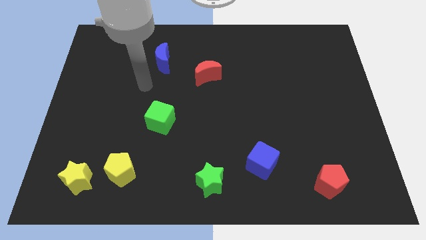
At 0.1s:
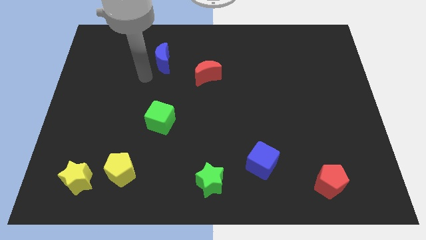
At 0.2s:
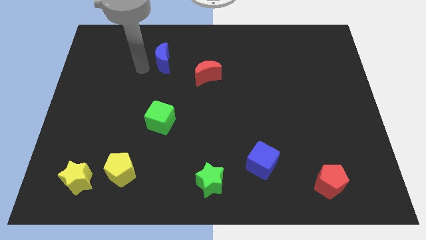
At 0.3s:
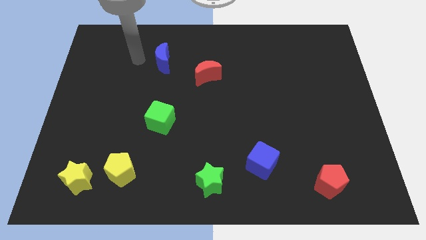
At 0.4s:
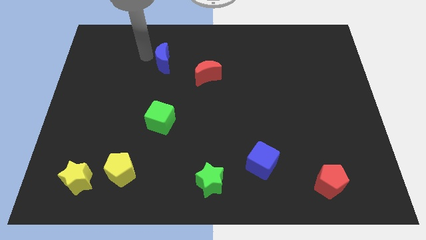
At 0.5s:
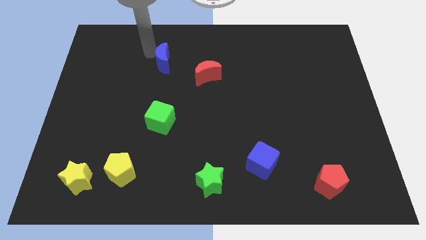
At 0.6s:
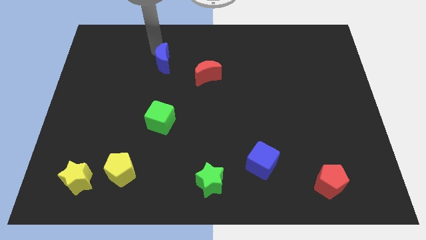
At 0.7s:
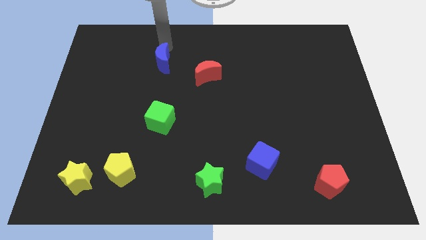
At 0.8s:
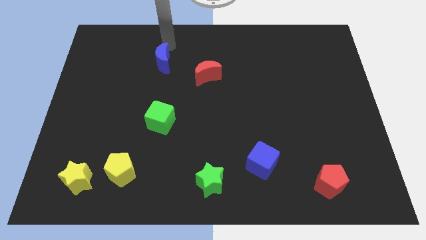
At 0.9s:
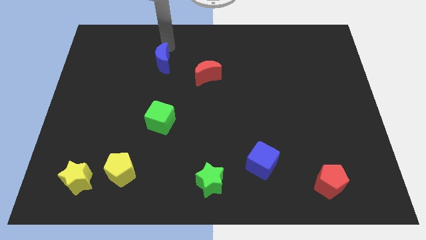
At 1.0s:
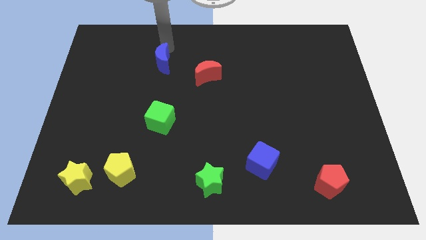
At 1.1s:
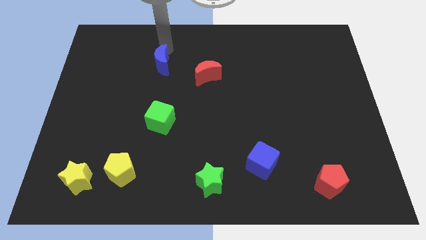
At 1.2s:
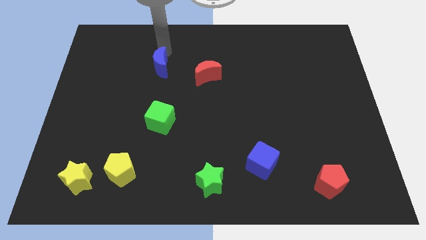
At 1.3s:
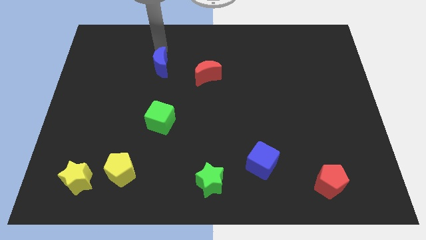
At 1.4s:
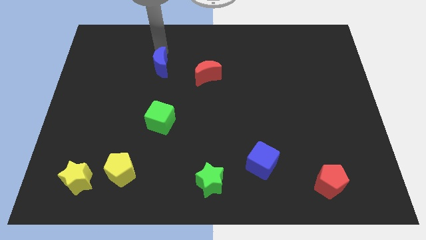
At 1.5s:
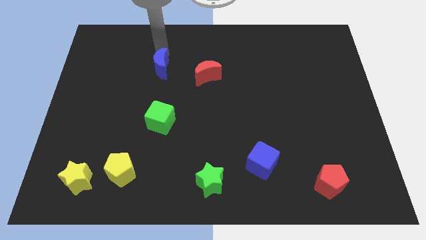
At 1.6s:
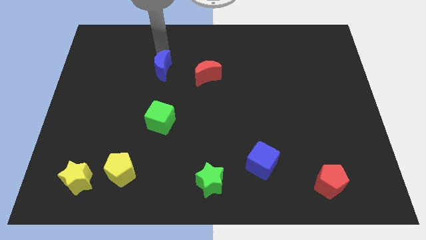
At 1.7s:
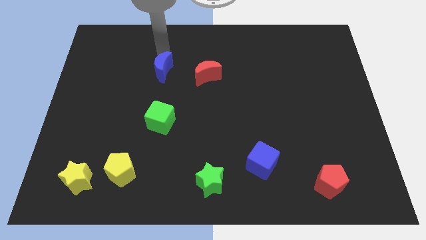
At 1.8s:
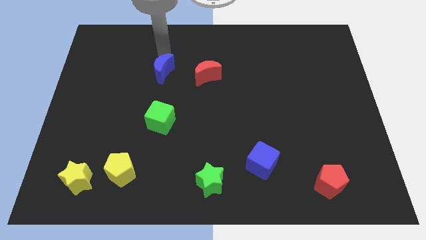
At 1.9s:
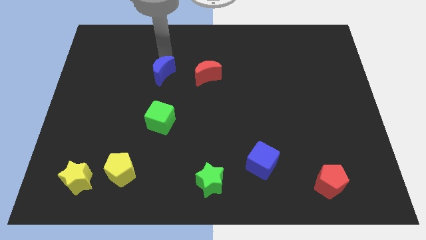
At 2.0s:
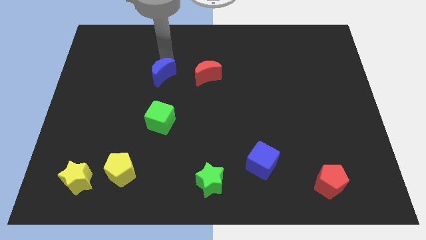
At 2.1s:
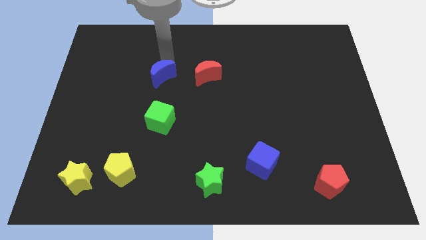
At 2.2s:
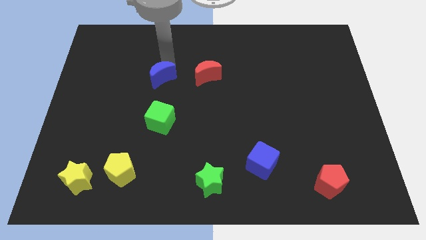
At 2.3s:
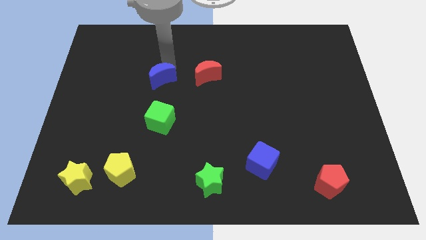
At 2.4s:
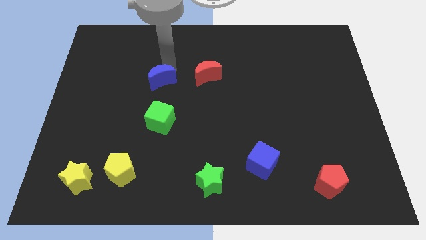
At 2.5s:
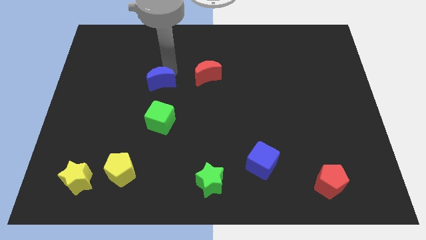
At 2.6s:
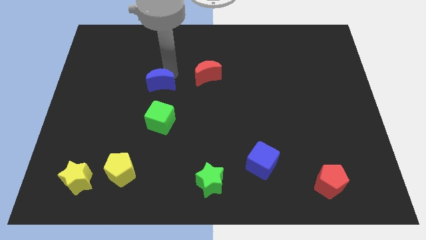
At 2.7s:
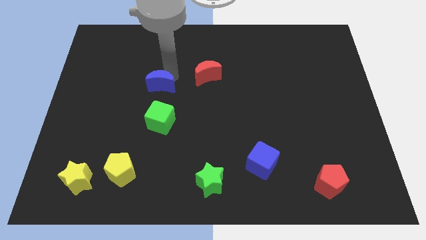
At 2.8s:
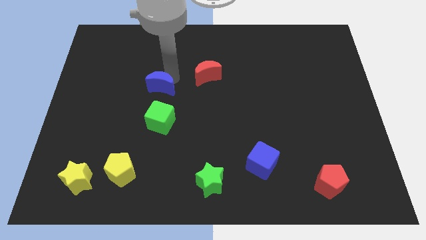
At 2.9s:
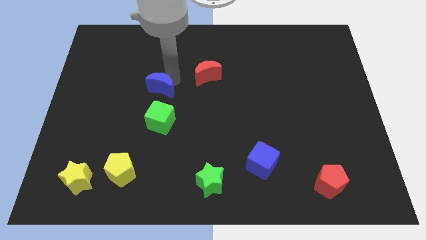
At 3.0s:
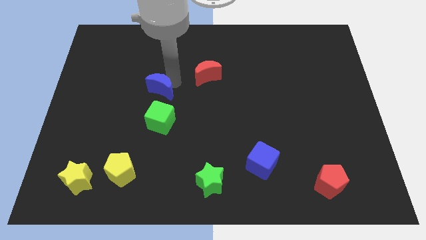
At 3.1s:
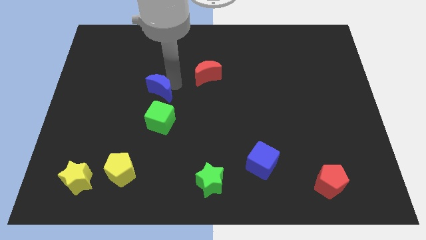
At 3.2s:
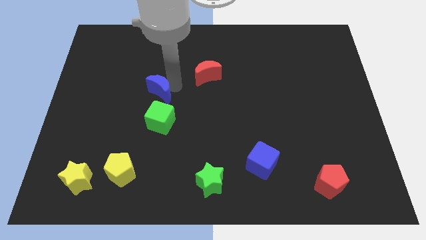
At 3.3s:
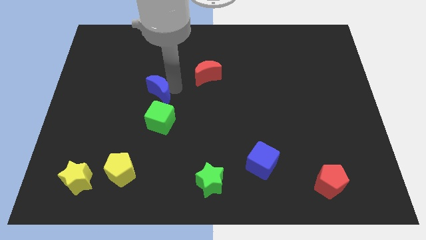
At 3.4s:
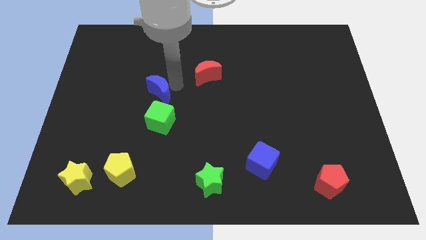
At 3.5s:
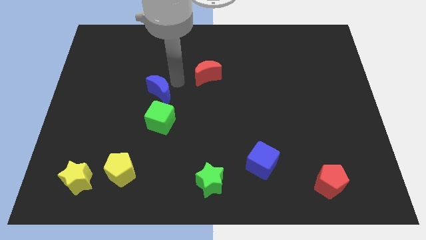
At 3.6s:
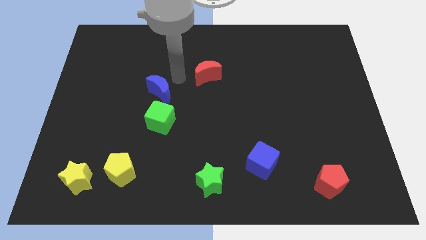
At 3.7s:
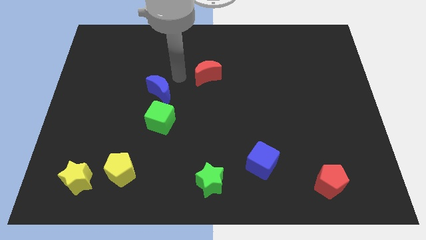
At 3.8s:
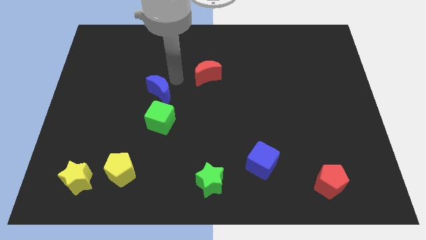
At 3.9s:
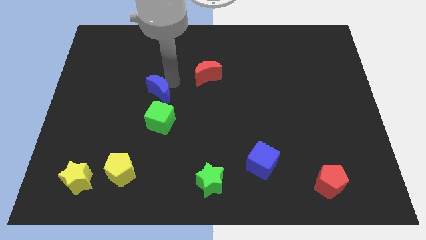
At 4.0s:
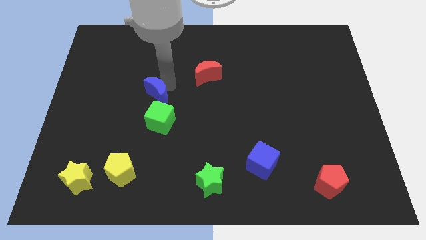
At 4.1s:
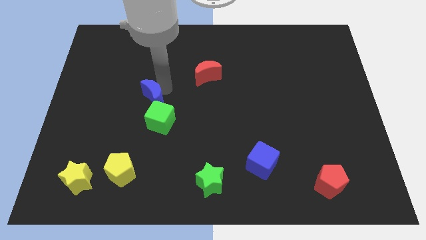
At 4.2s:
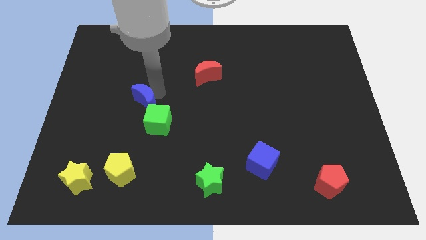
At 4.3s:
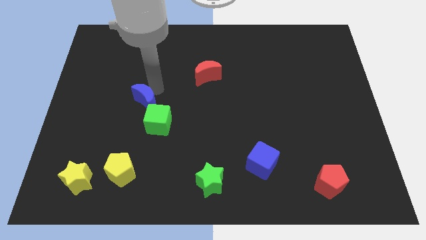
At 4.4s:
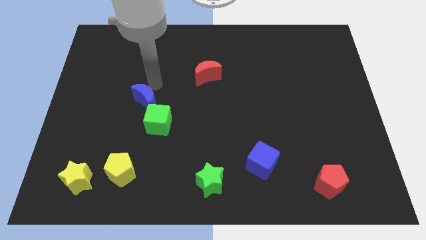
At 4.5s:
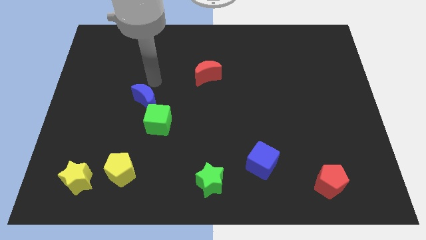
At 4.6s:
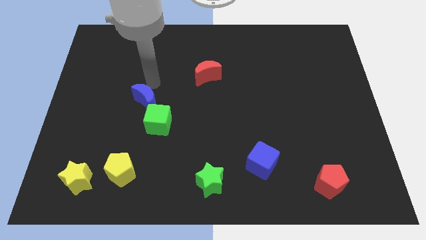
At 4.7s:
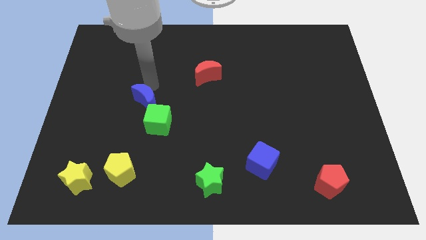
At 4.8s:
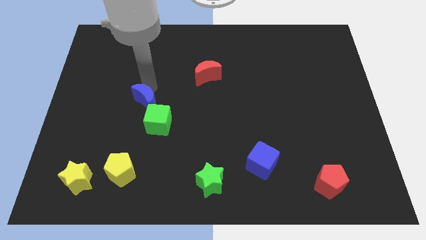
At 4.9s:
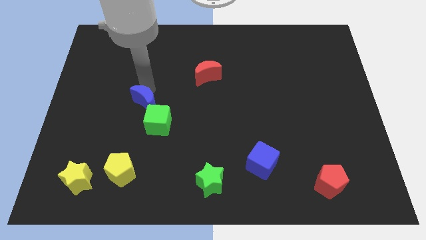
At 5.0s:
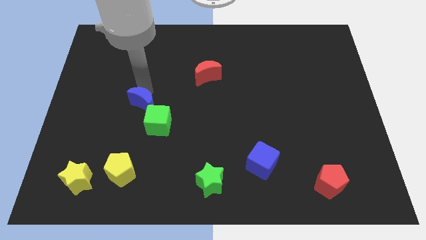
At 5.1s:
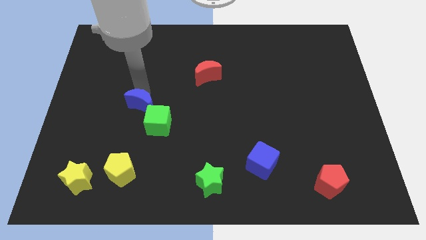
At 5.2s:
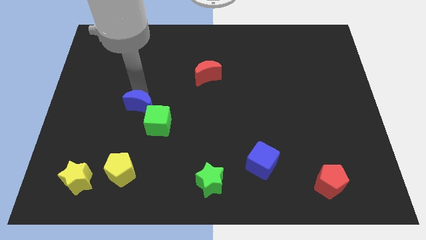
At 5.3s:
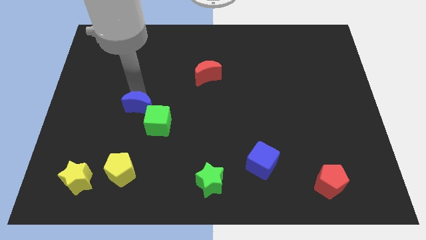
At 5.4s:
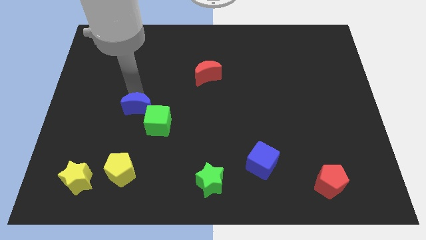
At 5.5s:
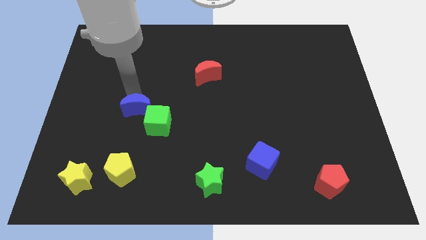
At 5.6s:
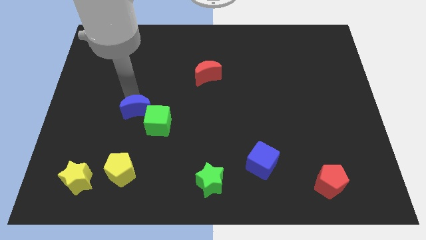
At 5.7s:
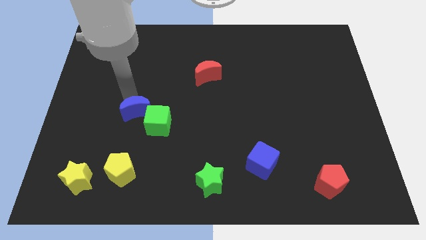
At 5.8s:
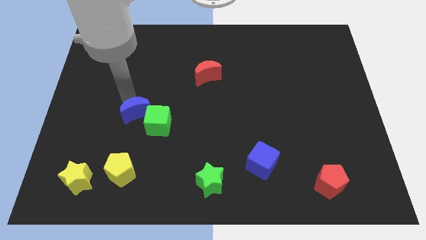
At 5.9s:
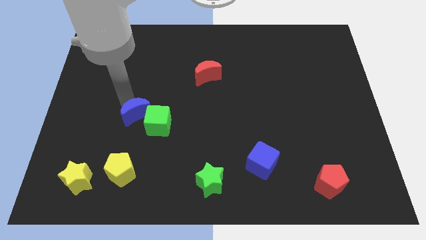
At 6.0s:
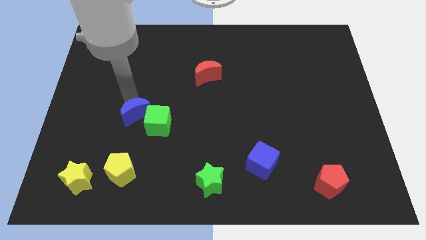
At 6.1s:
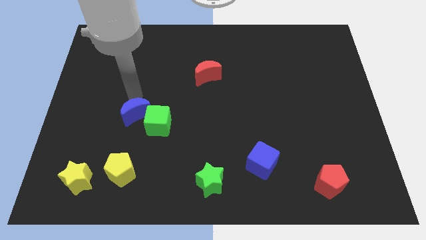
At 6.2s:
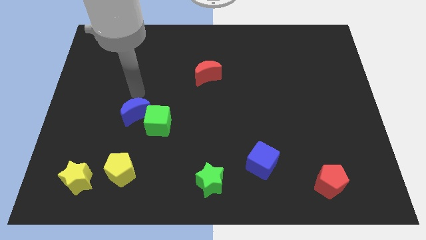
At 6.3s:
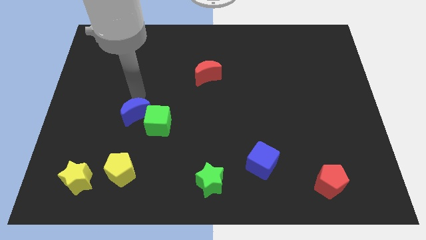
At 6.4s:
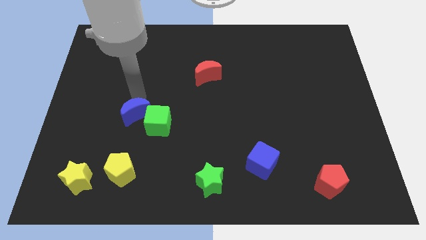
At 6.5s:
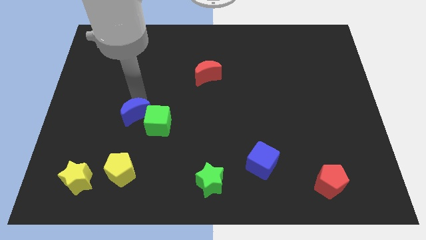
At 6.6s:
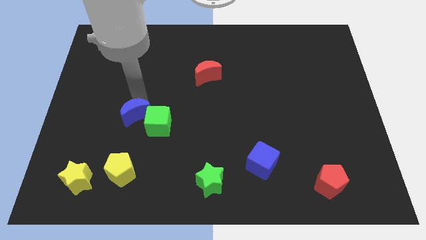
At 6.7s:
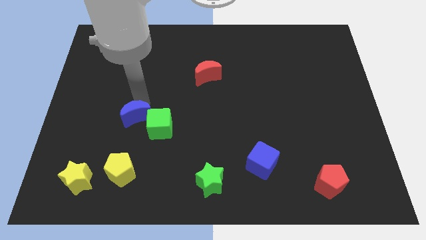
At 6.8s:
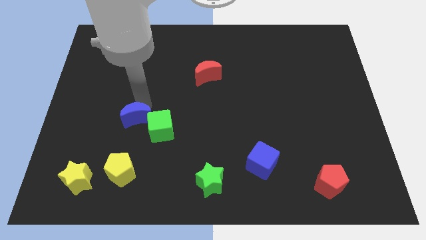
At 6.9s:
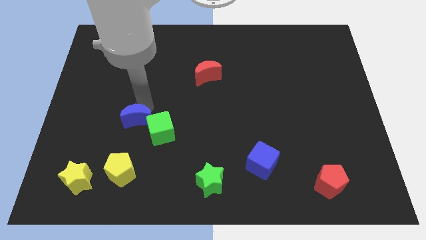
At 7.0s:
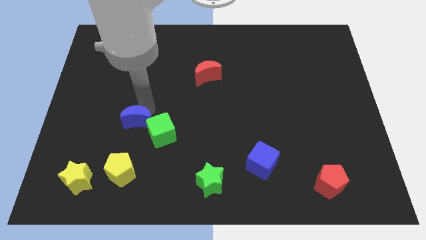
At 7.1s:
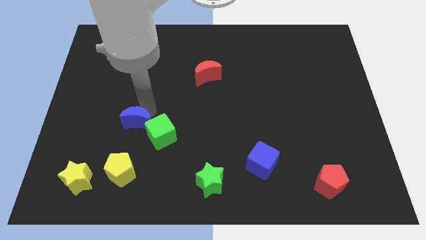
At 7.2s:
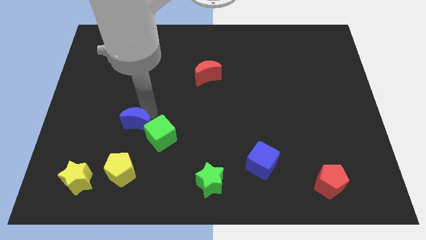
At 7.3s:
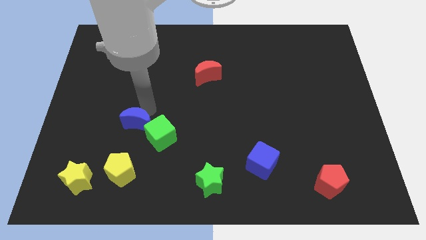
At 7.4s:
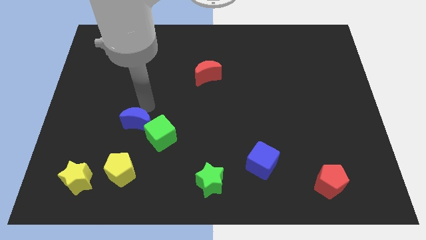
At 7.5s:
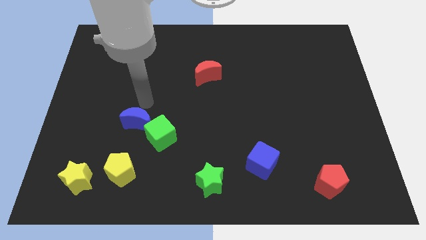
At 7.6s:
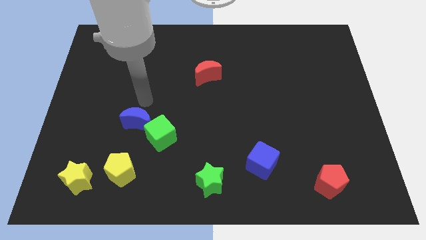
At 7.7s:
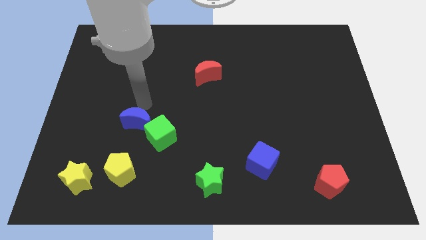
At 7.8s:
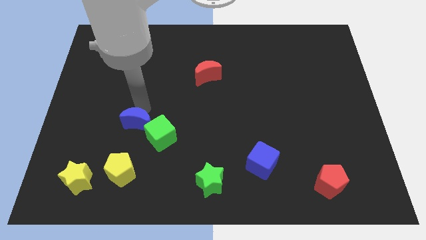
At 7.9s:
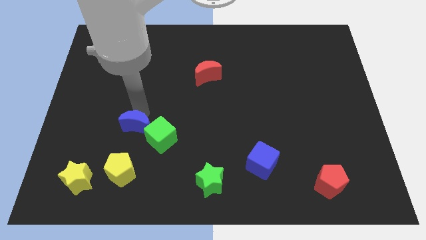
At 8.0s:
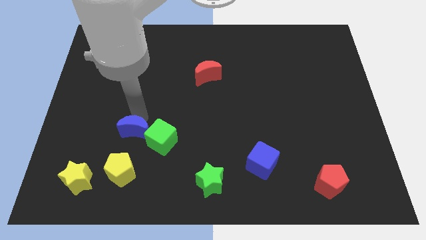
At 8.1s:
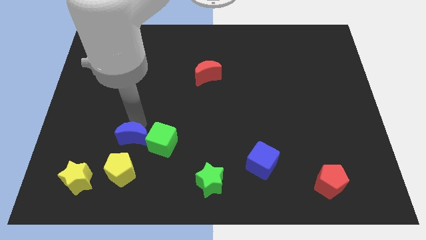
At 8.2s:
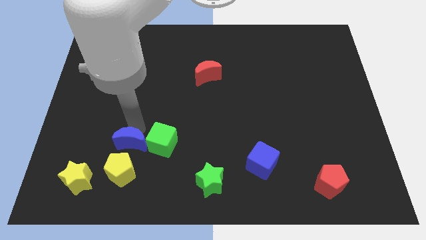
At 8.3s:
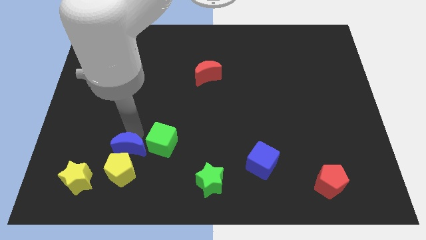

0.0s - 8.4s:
put the blue moon to the yellow pentagon
